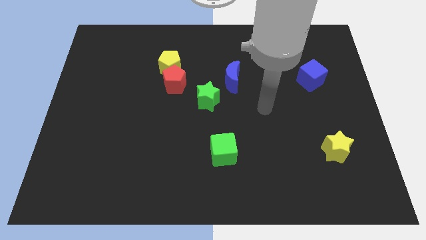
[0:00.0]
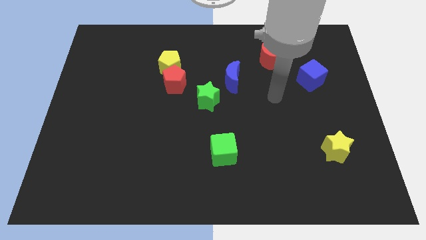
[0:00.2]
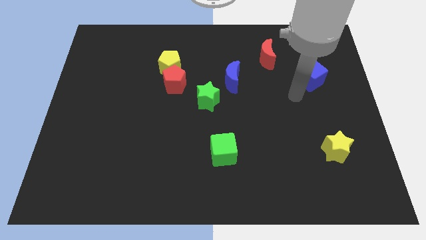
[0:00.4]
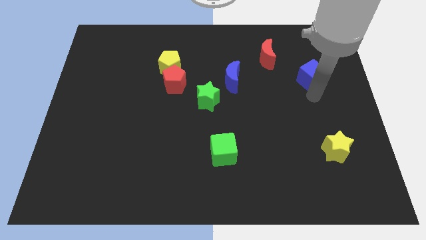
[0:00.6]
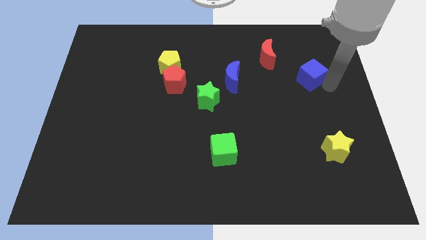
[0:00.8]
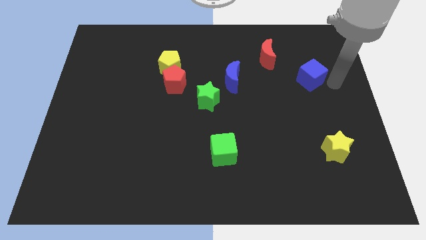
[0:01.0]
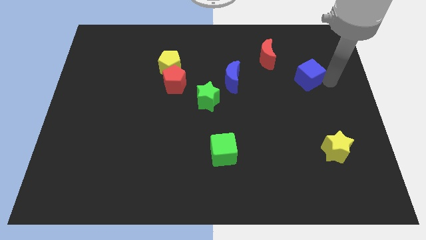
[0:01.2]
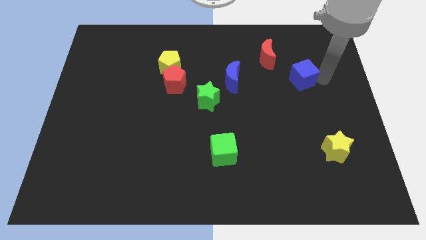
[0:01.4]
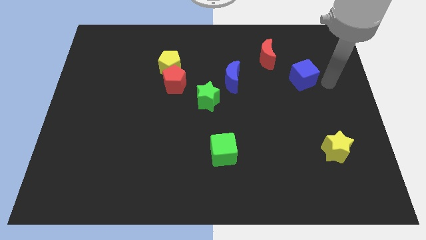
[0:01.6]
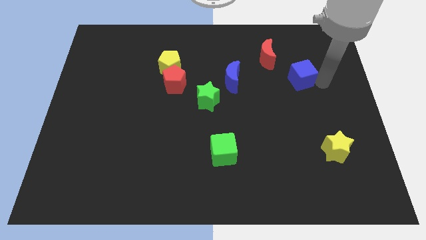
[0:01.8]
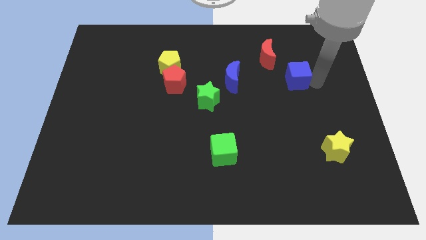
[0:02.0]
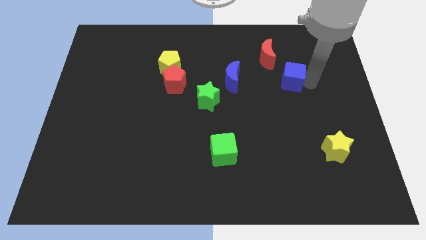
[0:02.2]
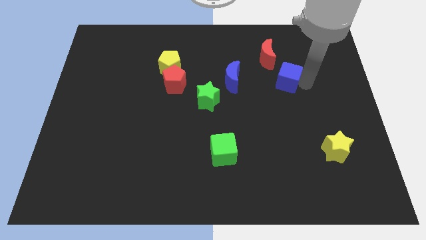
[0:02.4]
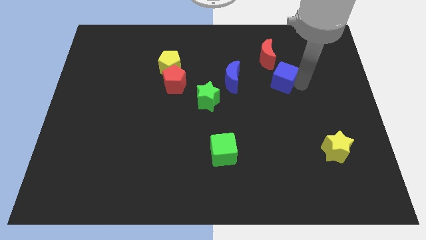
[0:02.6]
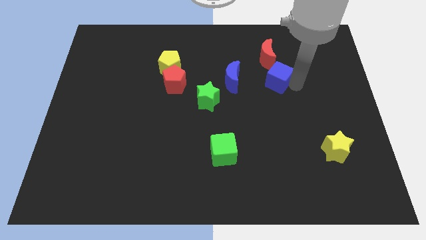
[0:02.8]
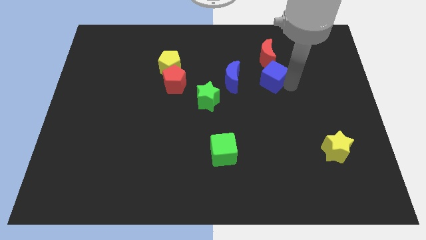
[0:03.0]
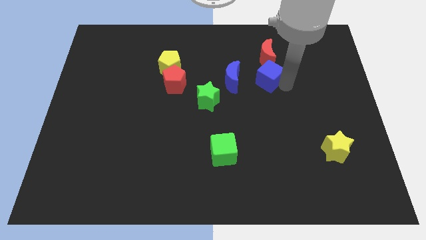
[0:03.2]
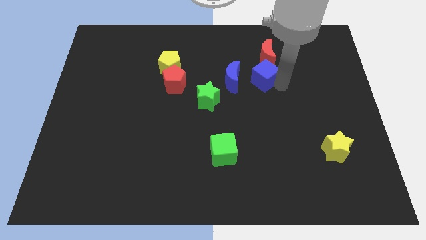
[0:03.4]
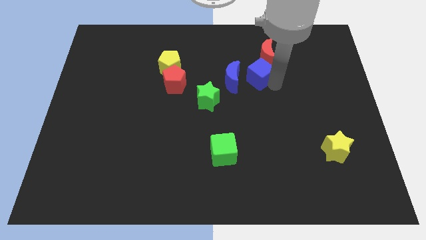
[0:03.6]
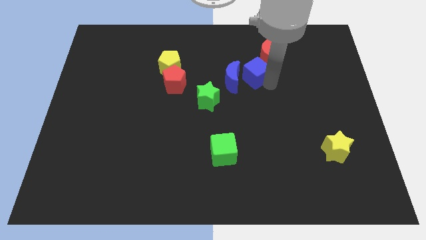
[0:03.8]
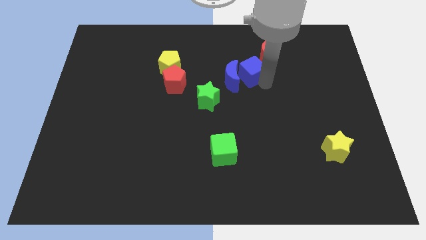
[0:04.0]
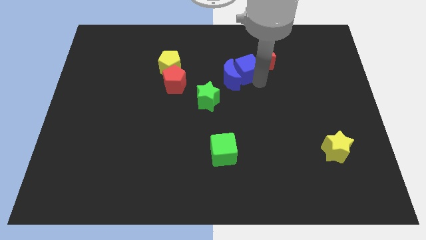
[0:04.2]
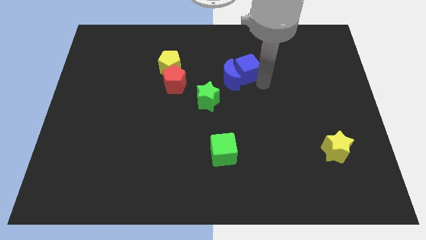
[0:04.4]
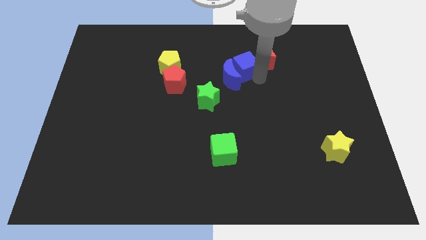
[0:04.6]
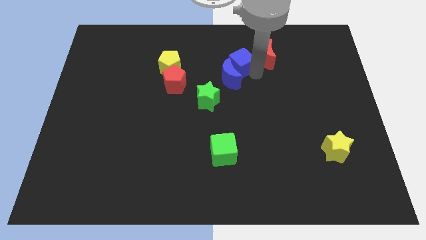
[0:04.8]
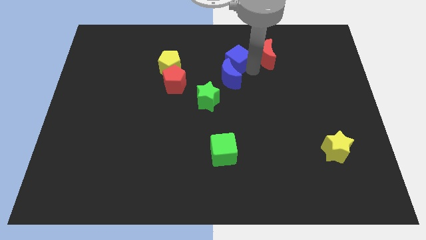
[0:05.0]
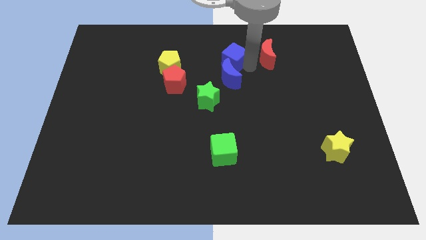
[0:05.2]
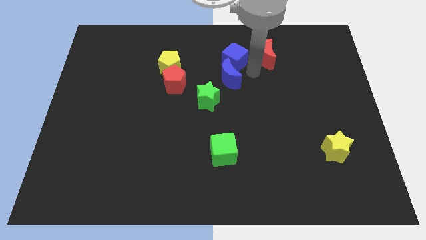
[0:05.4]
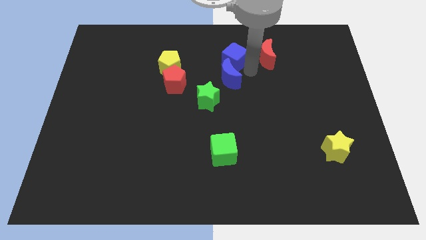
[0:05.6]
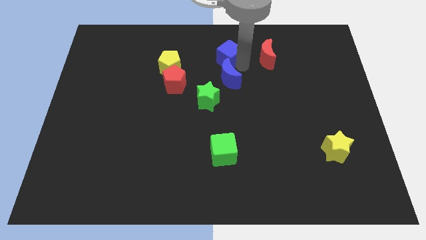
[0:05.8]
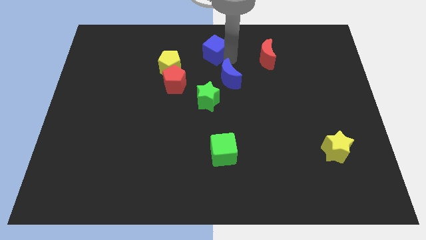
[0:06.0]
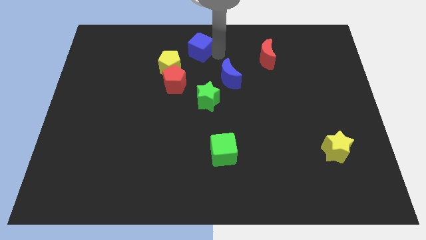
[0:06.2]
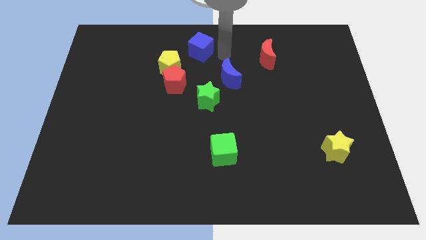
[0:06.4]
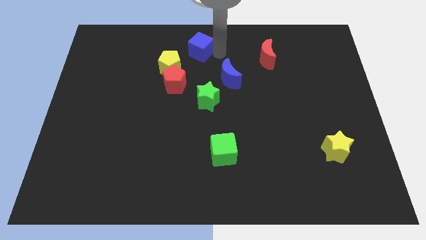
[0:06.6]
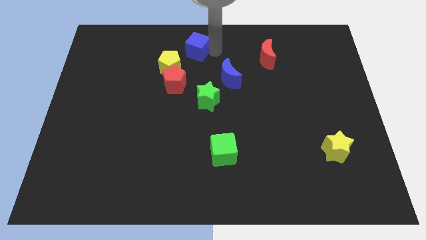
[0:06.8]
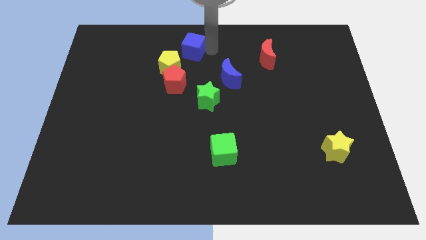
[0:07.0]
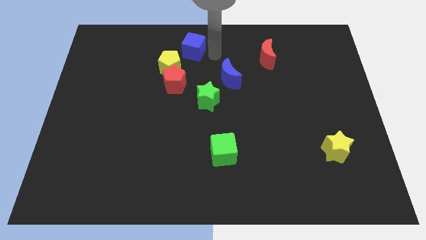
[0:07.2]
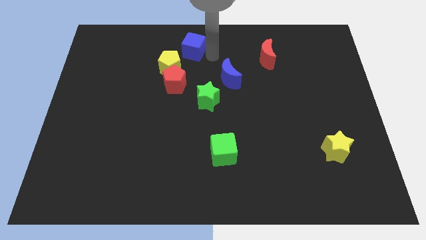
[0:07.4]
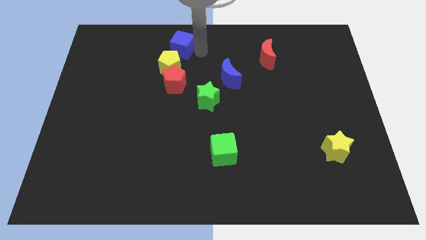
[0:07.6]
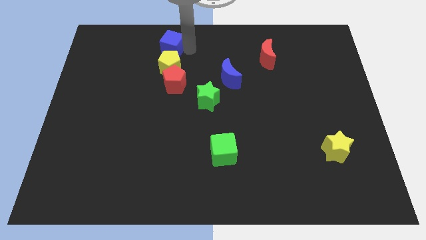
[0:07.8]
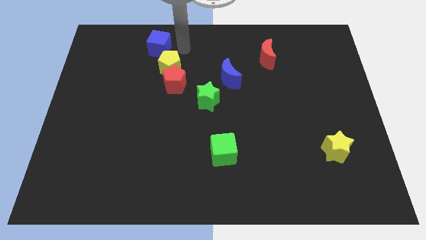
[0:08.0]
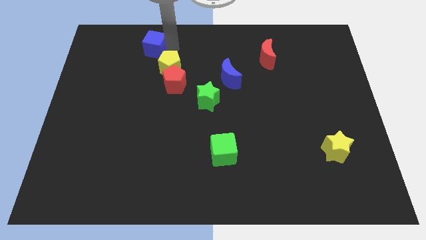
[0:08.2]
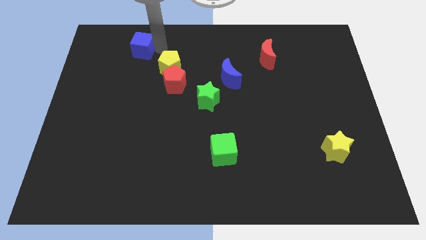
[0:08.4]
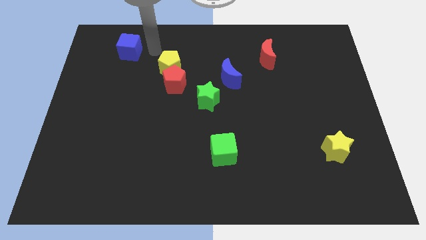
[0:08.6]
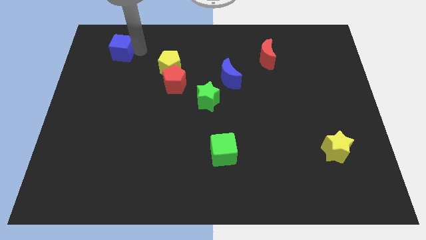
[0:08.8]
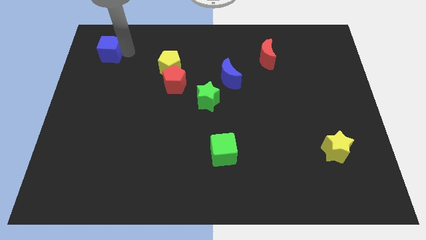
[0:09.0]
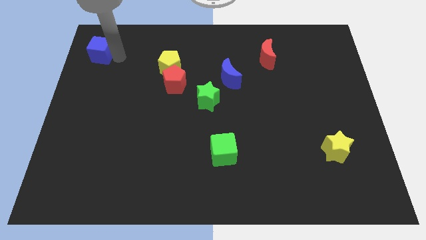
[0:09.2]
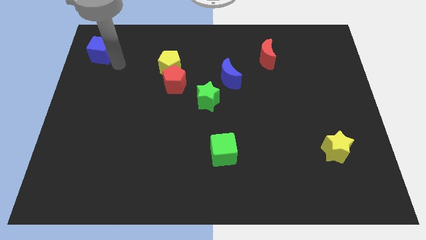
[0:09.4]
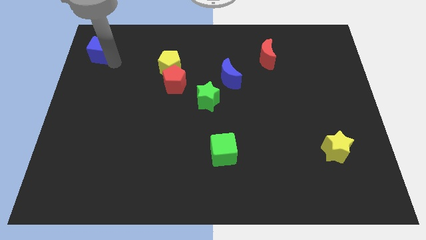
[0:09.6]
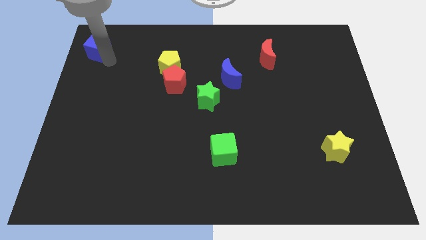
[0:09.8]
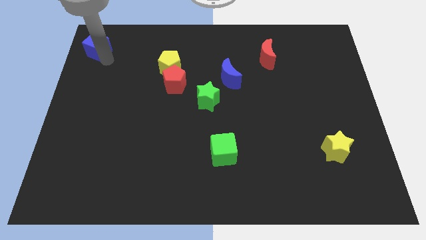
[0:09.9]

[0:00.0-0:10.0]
push the blue cube to the upper left corner

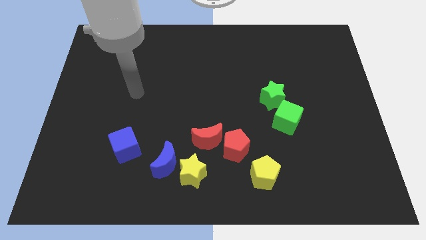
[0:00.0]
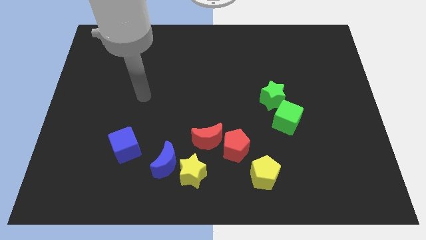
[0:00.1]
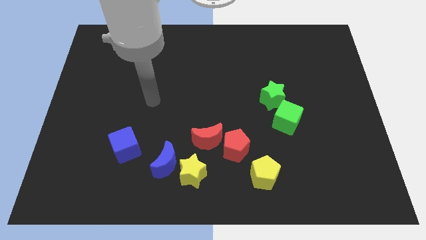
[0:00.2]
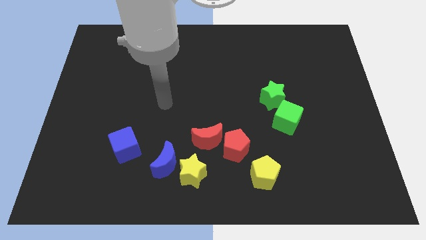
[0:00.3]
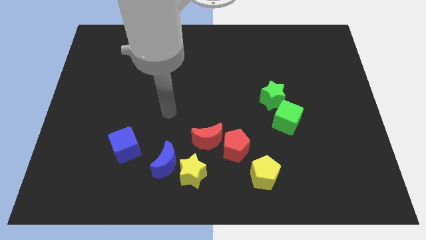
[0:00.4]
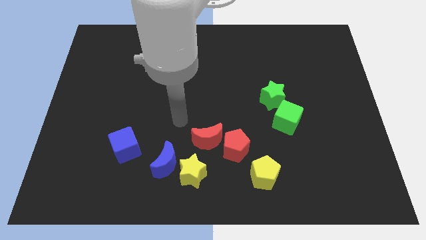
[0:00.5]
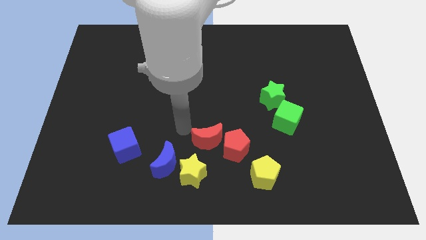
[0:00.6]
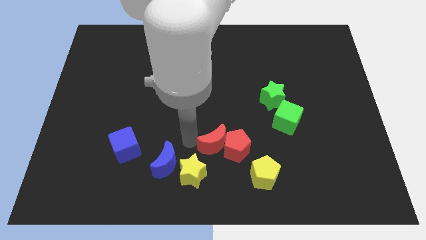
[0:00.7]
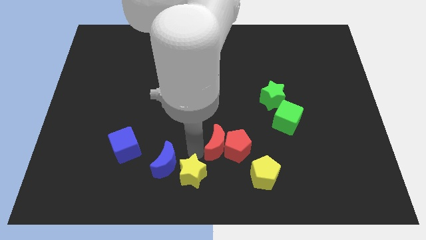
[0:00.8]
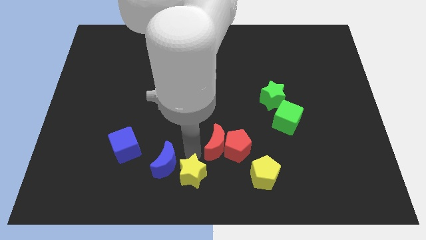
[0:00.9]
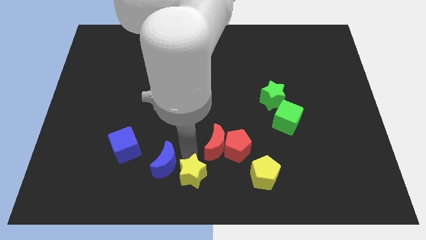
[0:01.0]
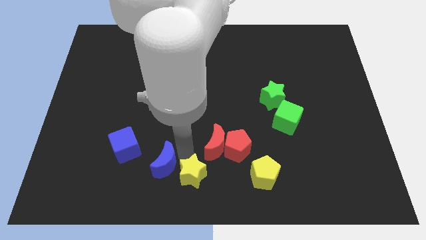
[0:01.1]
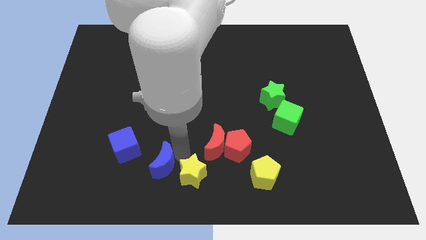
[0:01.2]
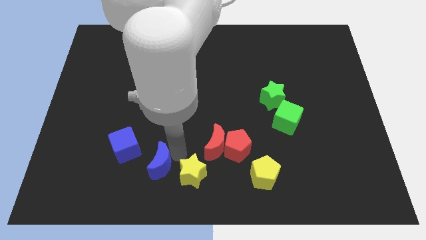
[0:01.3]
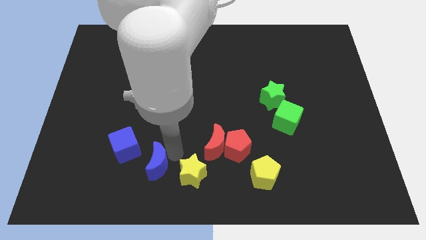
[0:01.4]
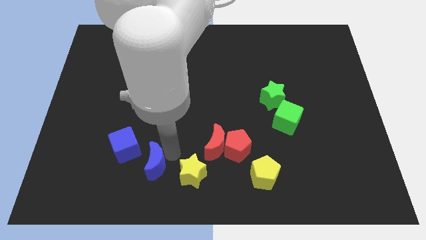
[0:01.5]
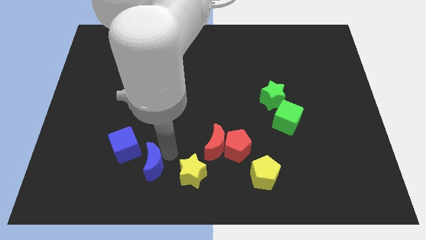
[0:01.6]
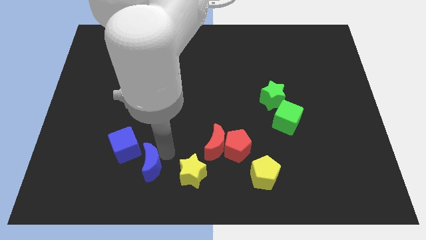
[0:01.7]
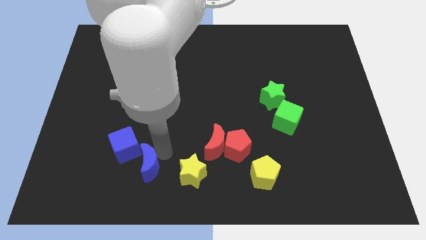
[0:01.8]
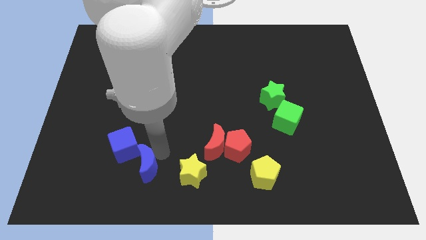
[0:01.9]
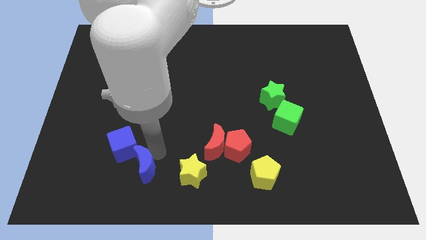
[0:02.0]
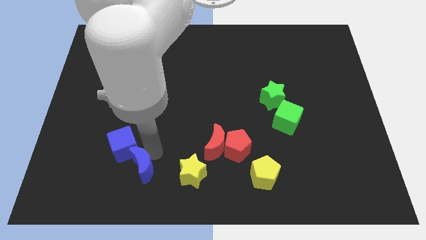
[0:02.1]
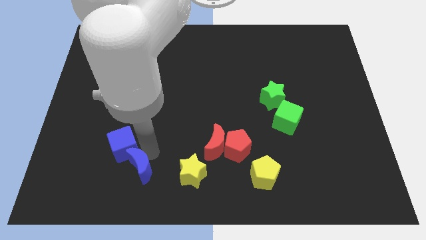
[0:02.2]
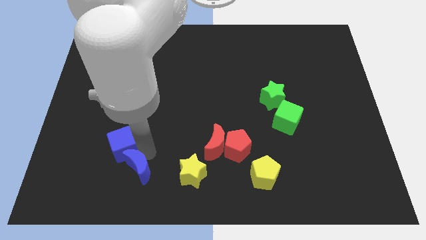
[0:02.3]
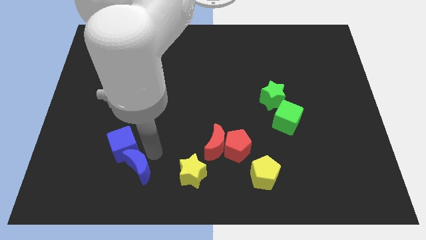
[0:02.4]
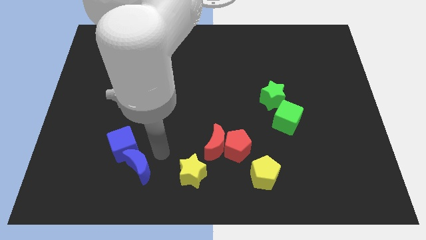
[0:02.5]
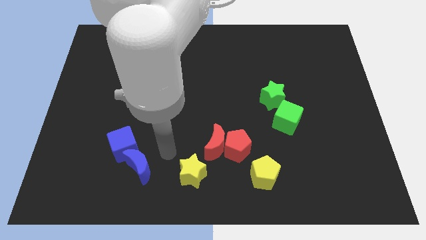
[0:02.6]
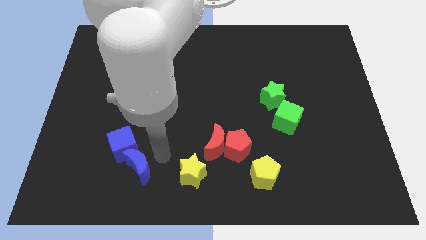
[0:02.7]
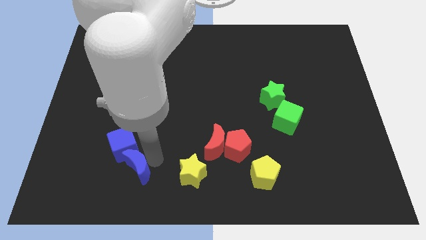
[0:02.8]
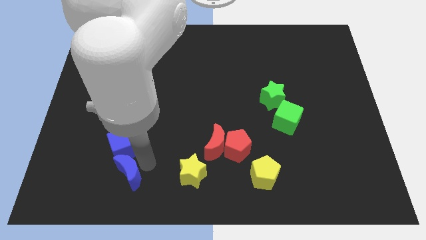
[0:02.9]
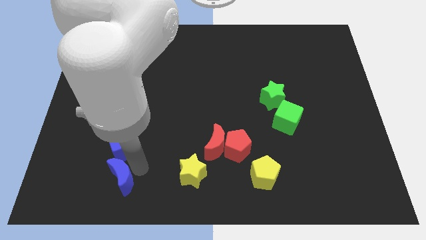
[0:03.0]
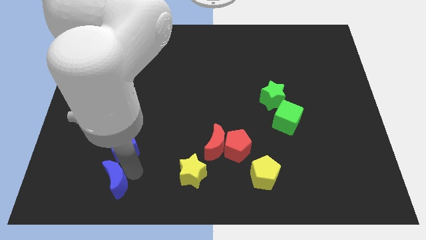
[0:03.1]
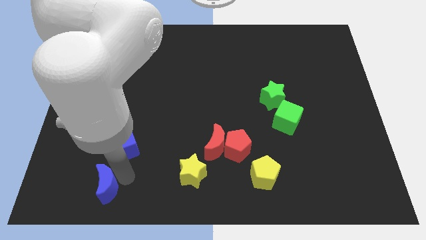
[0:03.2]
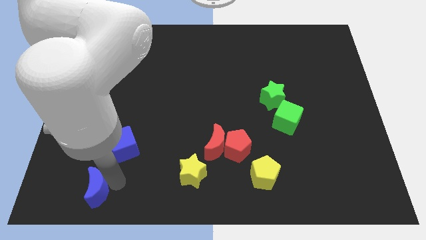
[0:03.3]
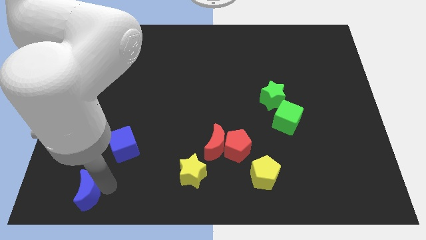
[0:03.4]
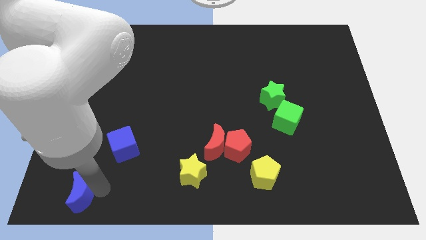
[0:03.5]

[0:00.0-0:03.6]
push the blue moon to the lower left corner
